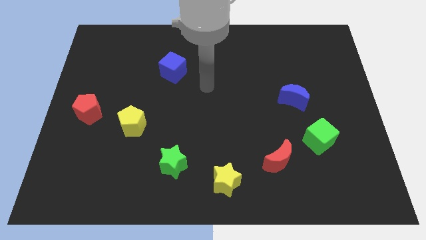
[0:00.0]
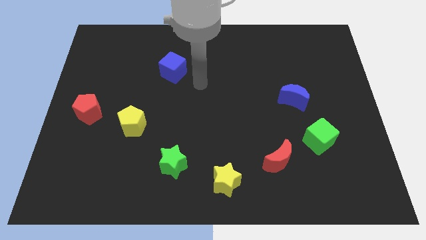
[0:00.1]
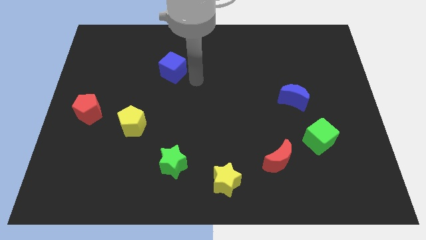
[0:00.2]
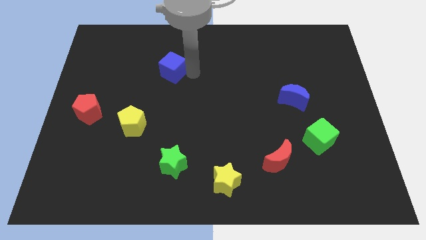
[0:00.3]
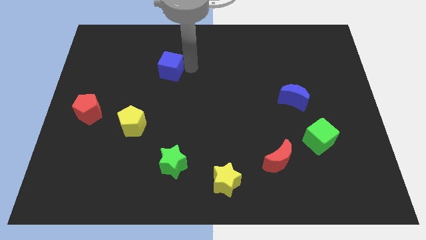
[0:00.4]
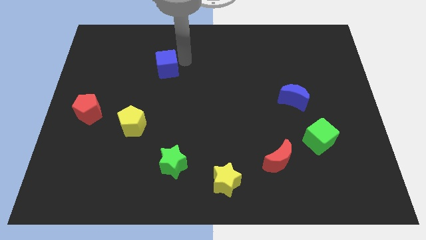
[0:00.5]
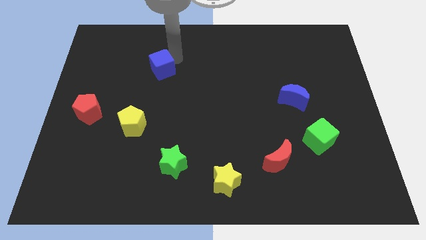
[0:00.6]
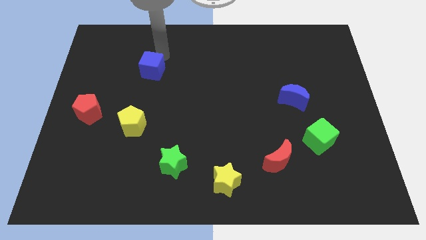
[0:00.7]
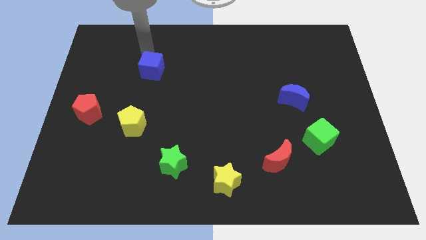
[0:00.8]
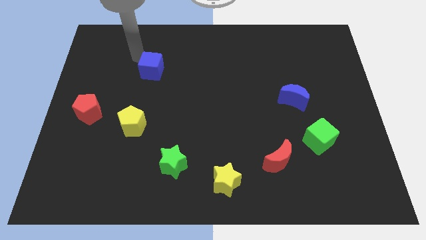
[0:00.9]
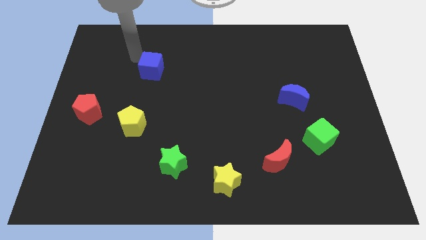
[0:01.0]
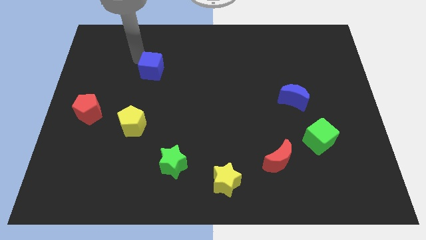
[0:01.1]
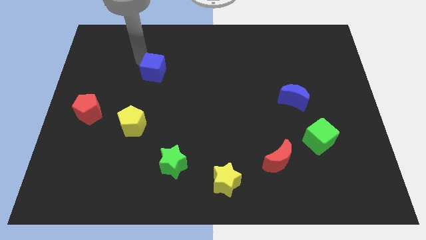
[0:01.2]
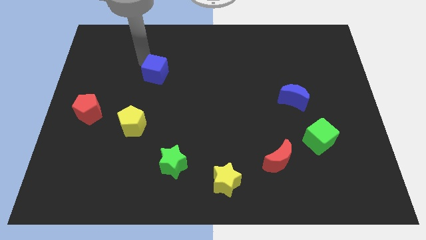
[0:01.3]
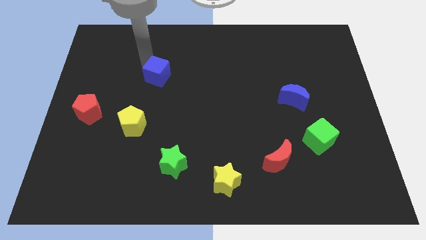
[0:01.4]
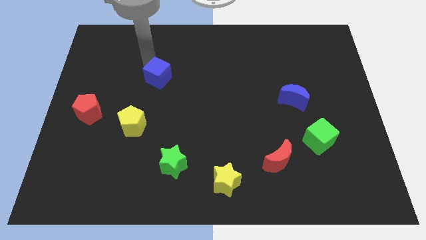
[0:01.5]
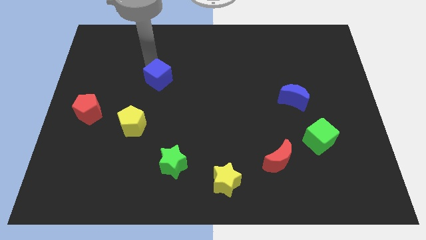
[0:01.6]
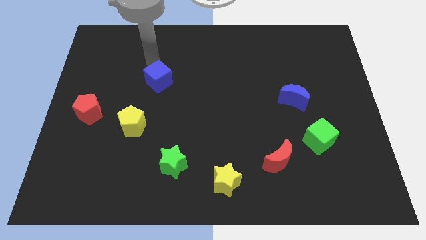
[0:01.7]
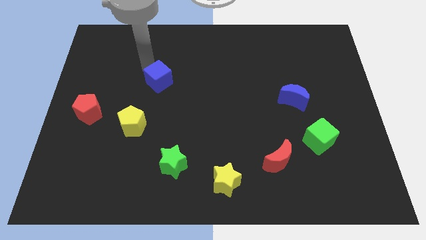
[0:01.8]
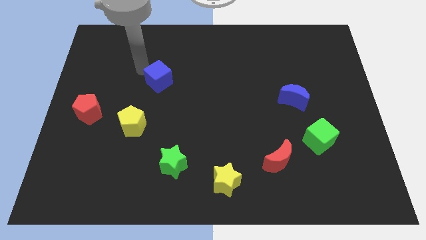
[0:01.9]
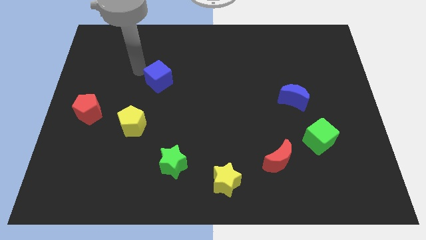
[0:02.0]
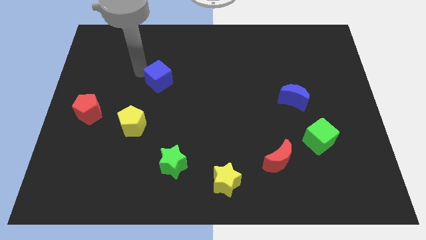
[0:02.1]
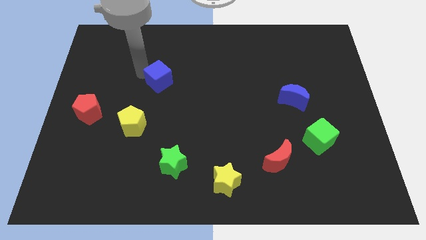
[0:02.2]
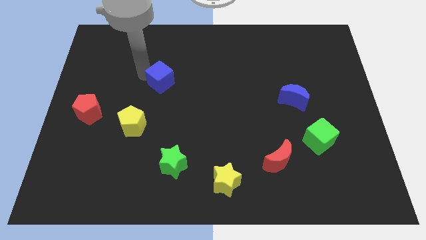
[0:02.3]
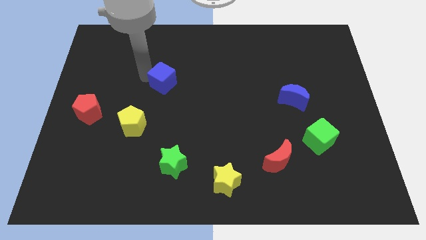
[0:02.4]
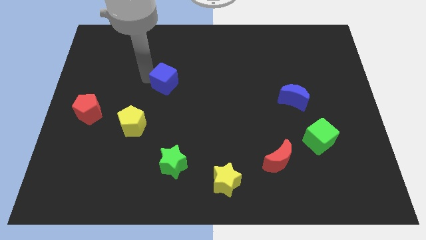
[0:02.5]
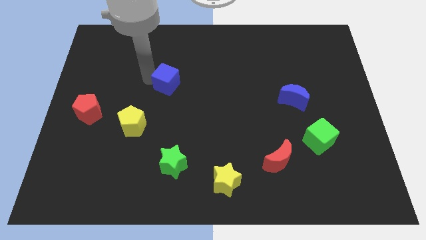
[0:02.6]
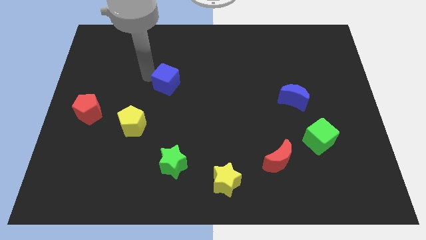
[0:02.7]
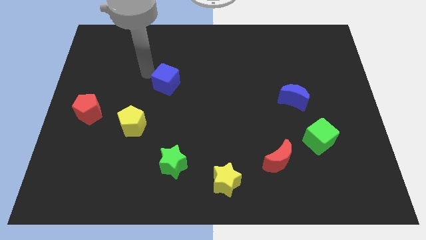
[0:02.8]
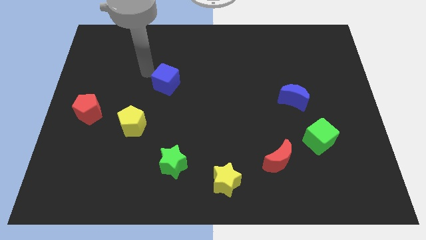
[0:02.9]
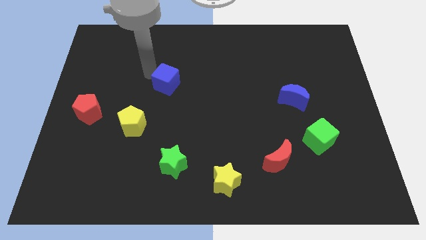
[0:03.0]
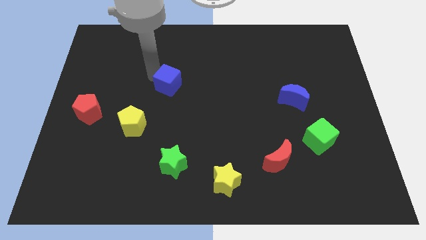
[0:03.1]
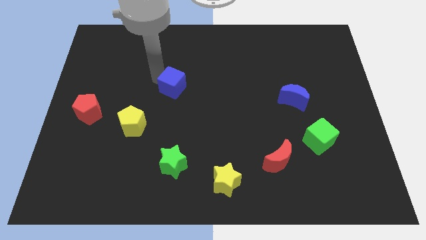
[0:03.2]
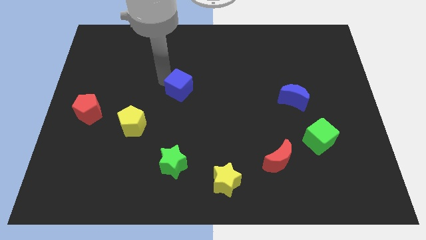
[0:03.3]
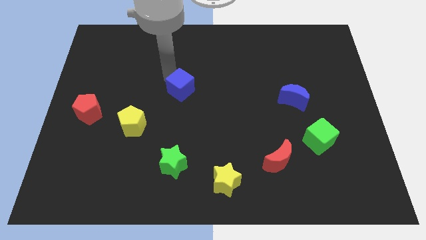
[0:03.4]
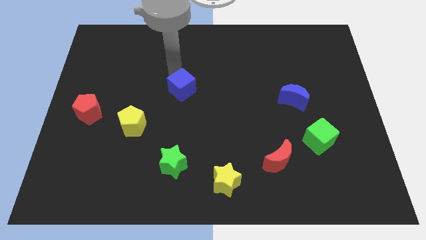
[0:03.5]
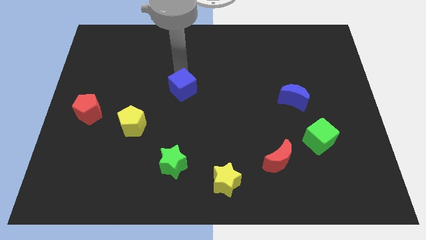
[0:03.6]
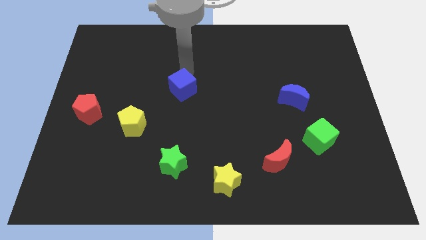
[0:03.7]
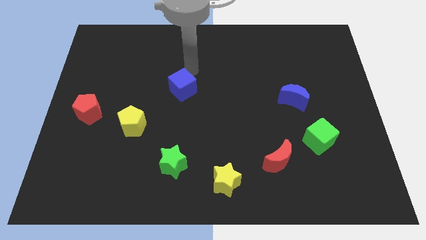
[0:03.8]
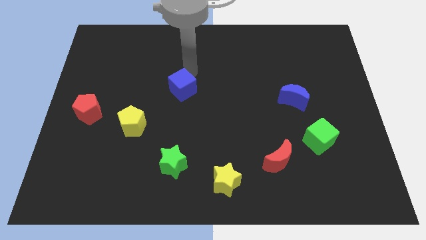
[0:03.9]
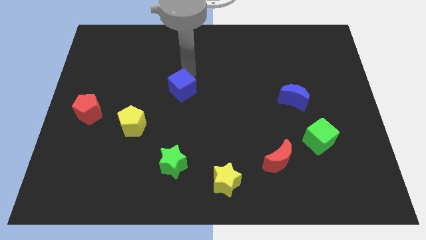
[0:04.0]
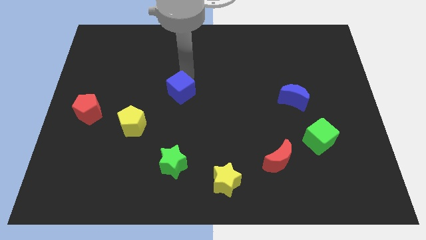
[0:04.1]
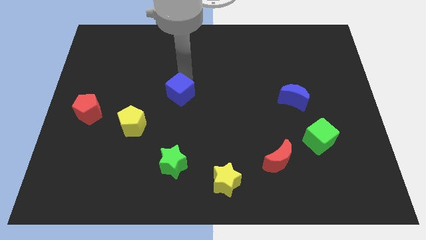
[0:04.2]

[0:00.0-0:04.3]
slightly move the blue cube down

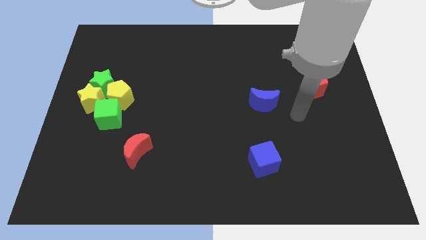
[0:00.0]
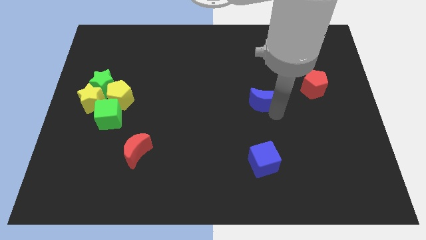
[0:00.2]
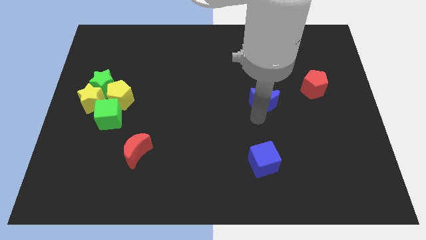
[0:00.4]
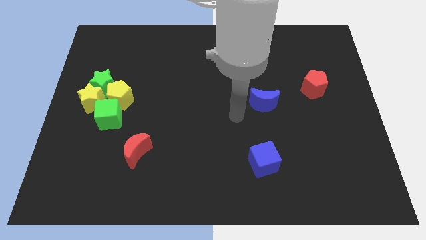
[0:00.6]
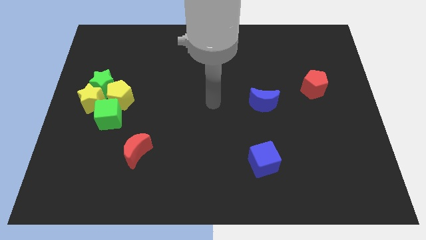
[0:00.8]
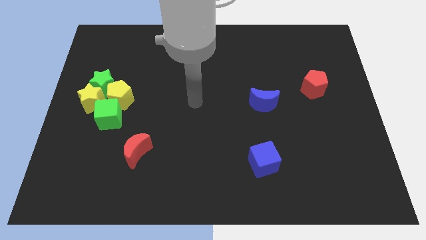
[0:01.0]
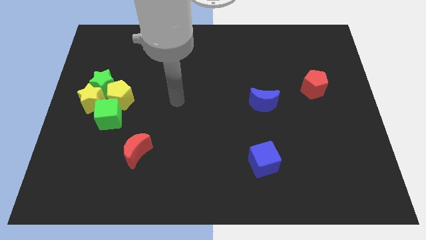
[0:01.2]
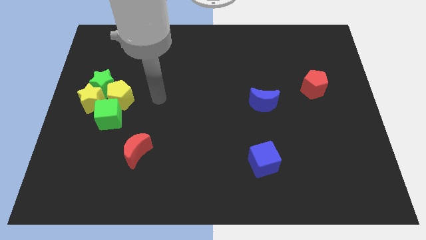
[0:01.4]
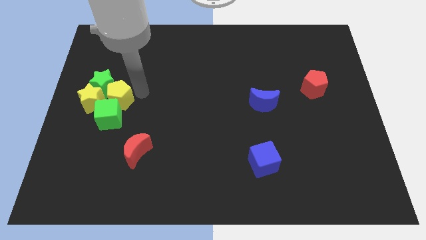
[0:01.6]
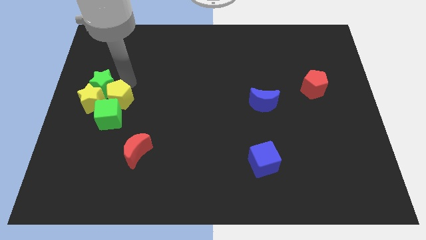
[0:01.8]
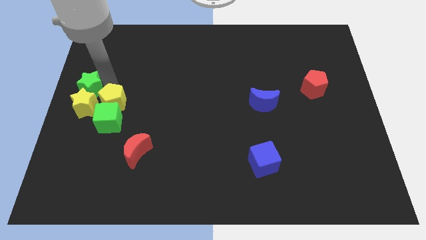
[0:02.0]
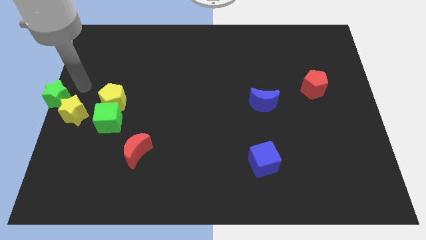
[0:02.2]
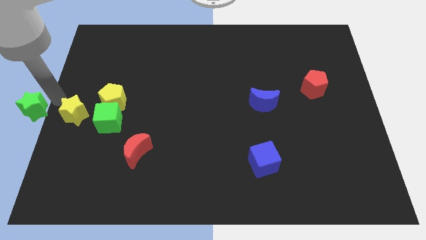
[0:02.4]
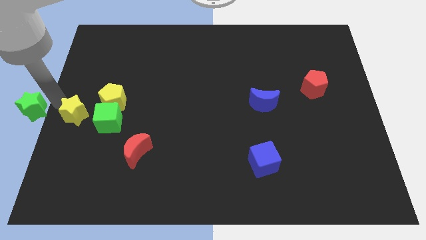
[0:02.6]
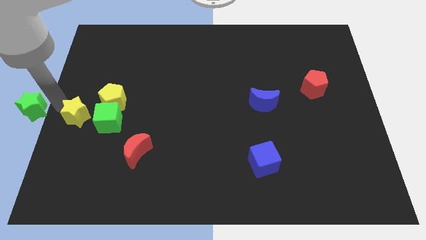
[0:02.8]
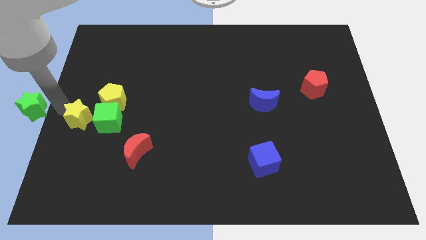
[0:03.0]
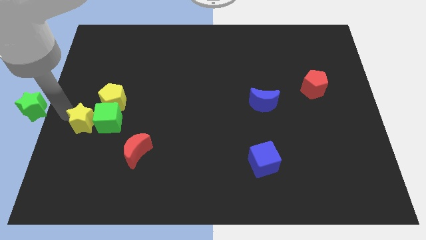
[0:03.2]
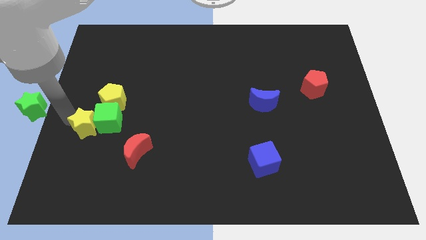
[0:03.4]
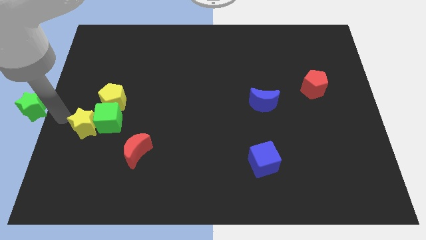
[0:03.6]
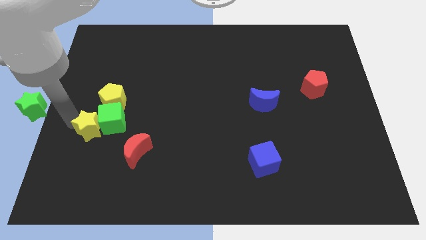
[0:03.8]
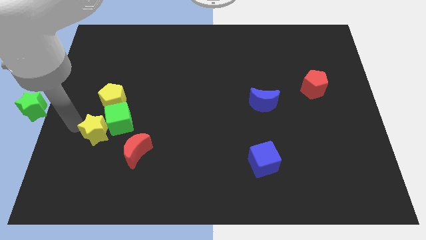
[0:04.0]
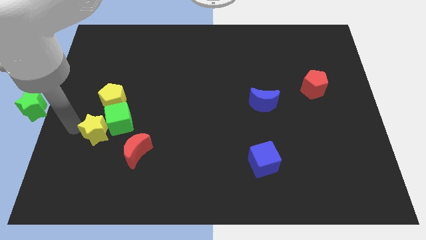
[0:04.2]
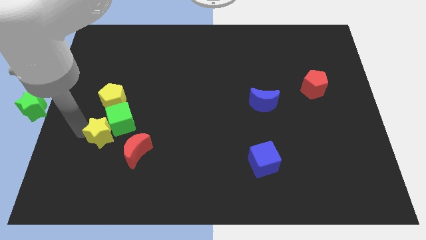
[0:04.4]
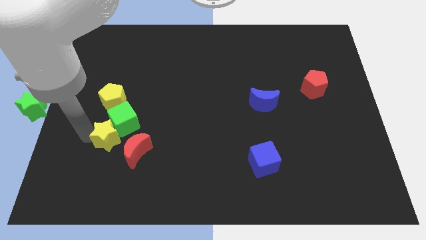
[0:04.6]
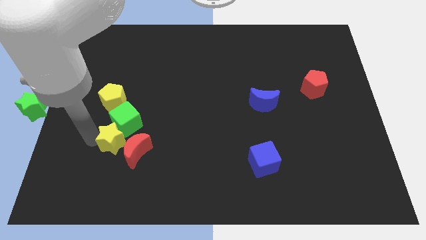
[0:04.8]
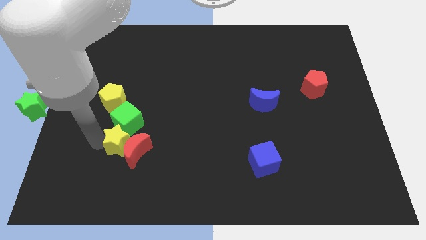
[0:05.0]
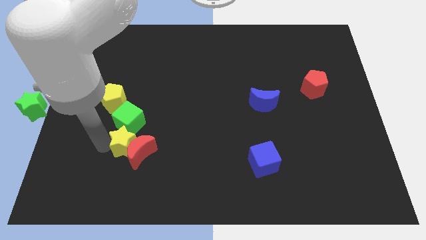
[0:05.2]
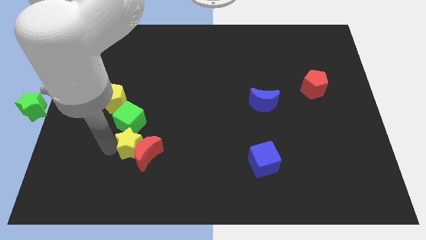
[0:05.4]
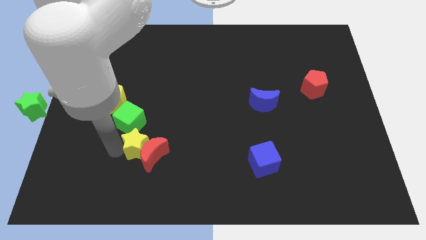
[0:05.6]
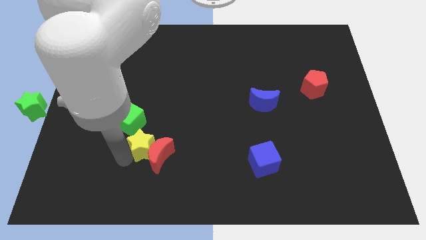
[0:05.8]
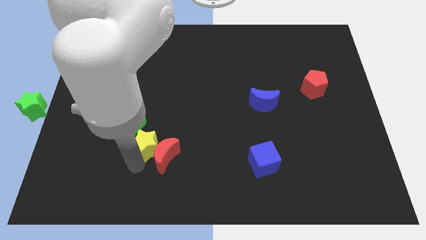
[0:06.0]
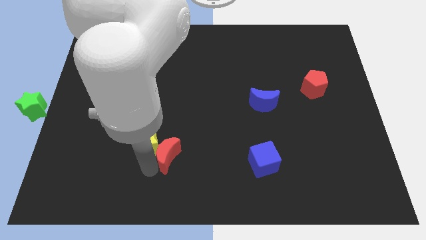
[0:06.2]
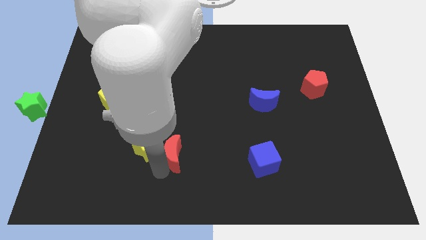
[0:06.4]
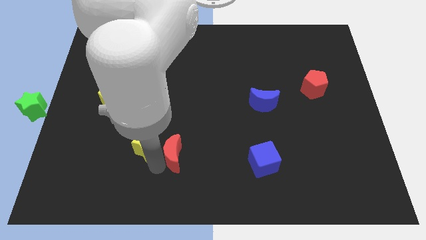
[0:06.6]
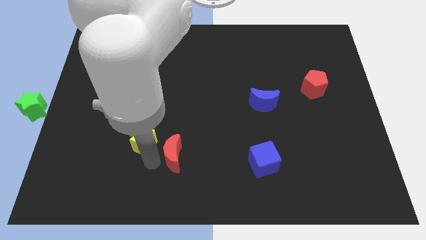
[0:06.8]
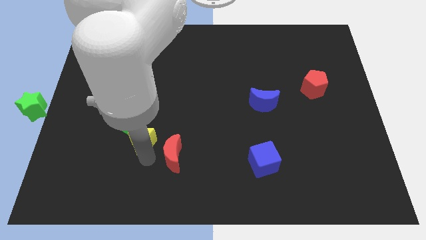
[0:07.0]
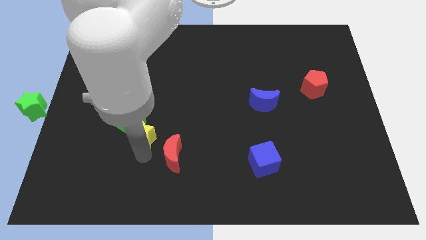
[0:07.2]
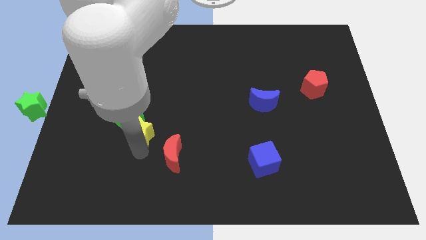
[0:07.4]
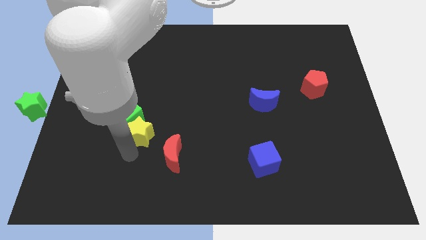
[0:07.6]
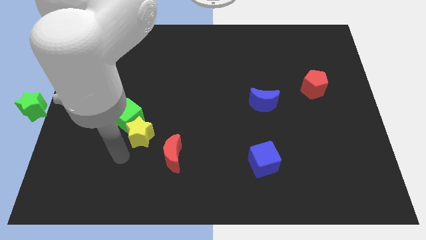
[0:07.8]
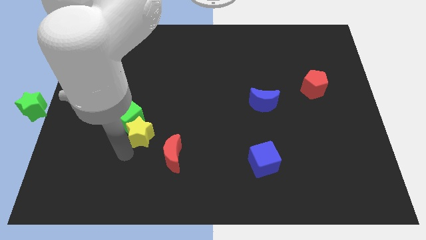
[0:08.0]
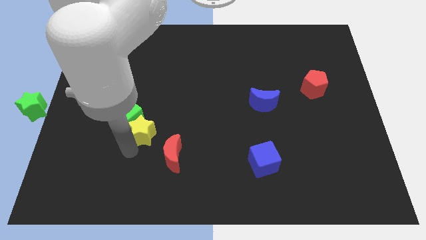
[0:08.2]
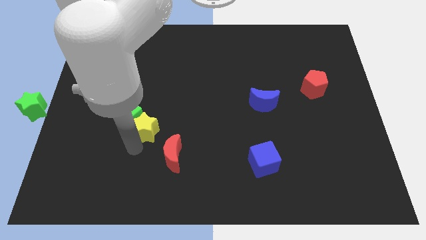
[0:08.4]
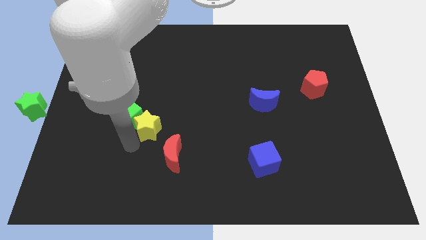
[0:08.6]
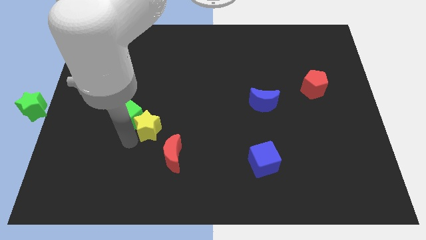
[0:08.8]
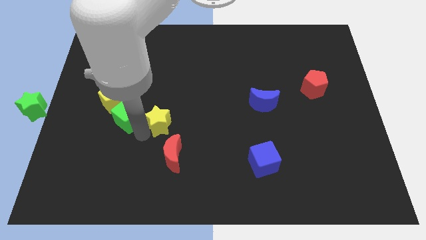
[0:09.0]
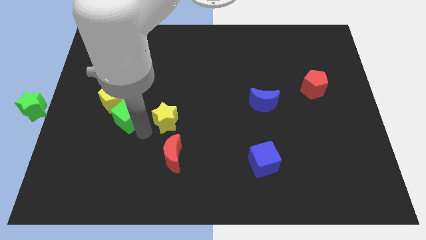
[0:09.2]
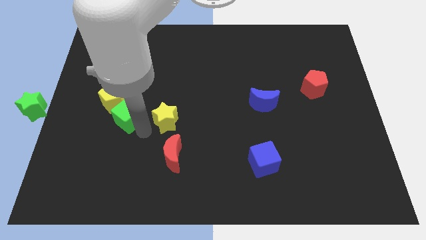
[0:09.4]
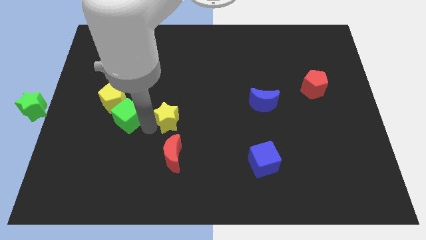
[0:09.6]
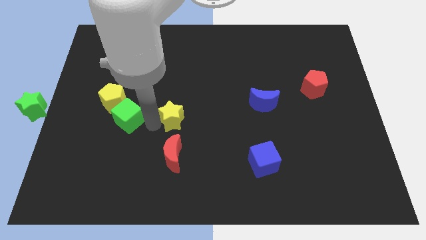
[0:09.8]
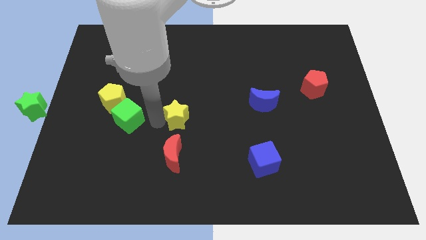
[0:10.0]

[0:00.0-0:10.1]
move the yellow star to the right
